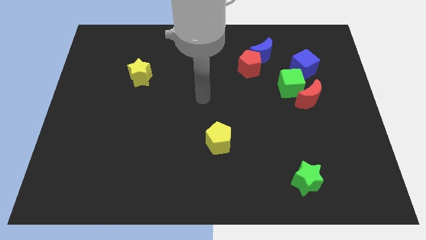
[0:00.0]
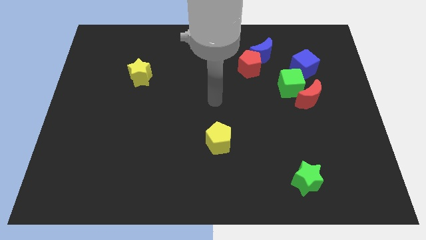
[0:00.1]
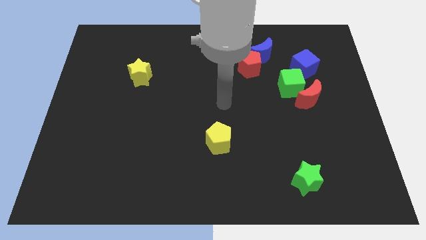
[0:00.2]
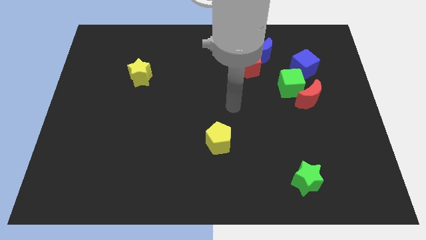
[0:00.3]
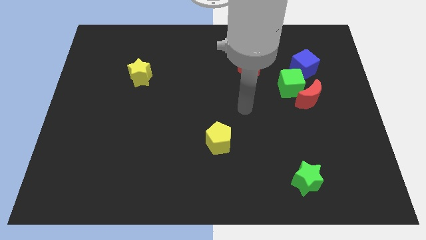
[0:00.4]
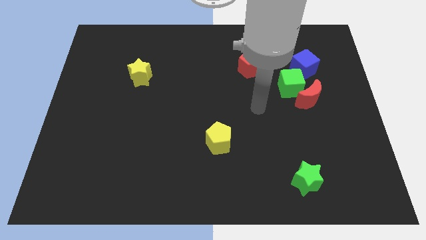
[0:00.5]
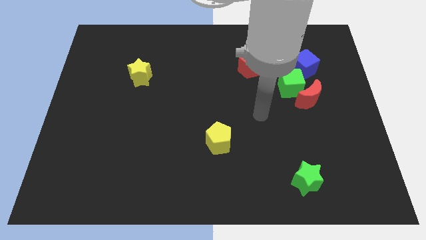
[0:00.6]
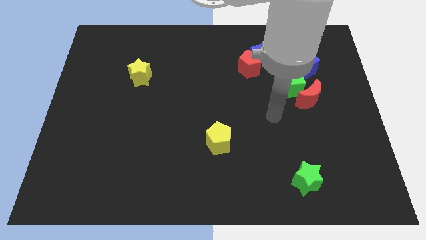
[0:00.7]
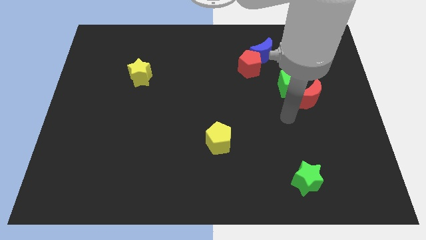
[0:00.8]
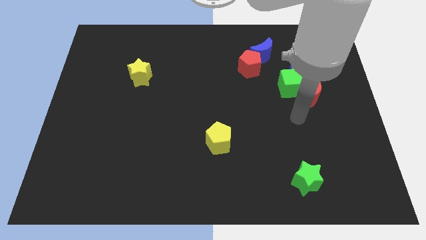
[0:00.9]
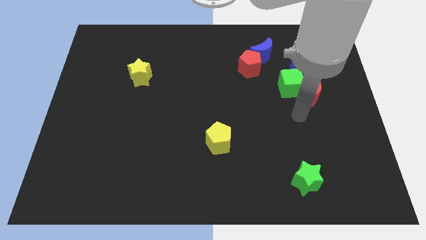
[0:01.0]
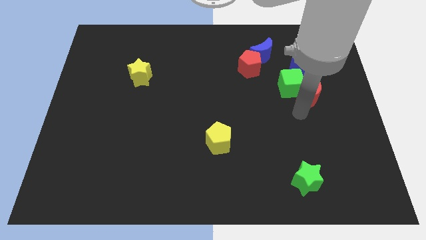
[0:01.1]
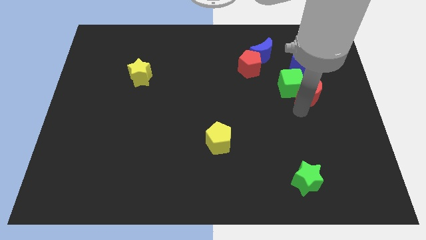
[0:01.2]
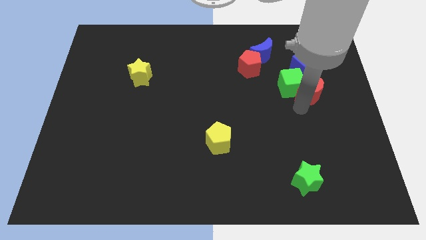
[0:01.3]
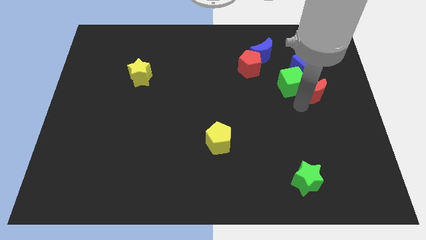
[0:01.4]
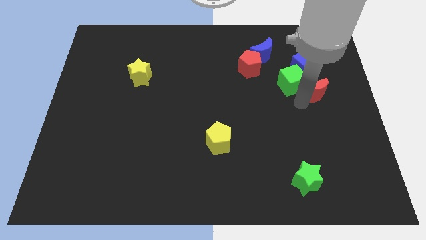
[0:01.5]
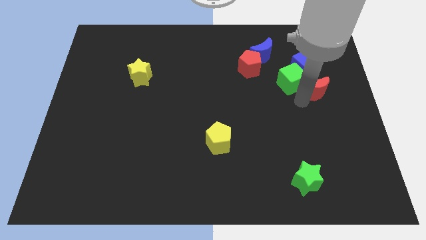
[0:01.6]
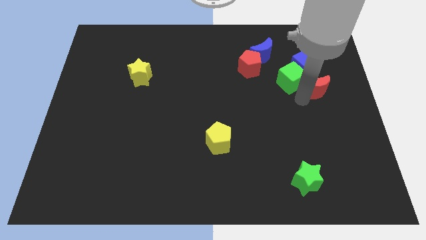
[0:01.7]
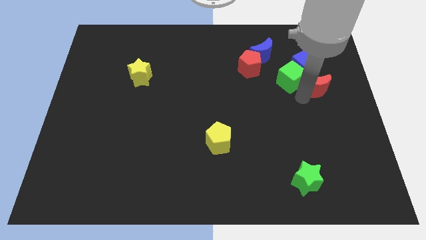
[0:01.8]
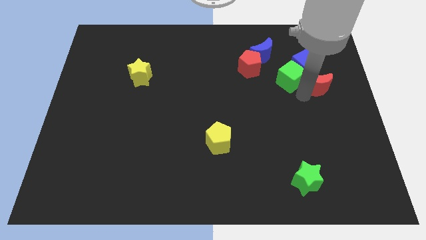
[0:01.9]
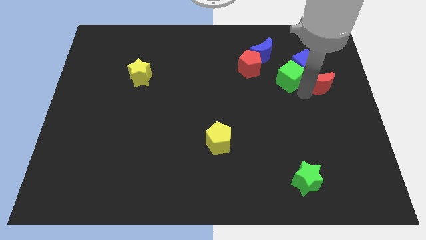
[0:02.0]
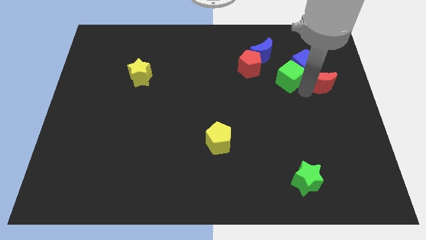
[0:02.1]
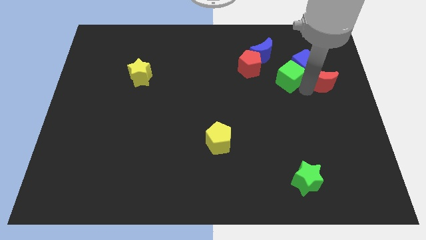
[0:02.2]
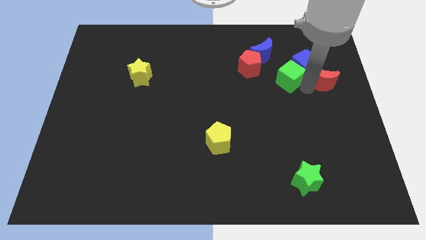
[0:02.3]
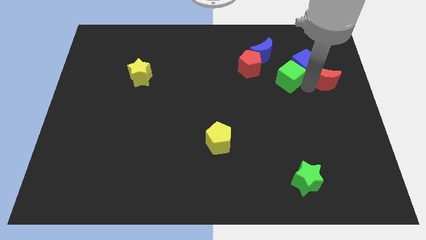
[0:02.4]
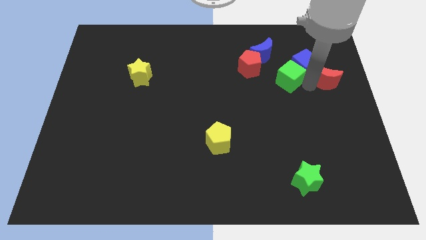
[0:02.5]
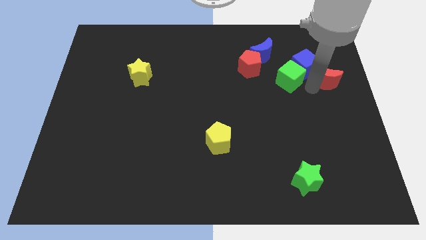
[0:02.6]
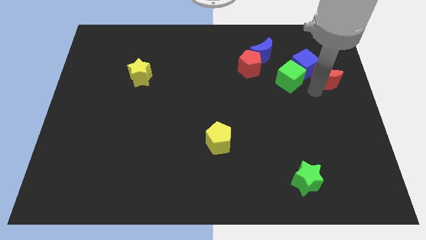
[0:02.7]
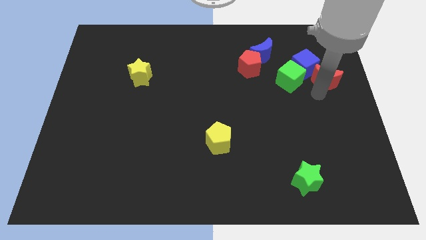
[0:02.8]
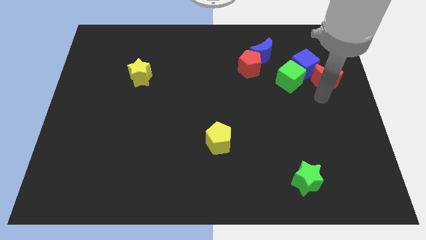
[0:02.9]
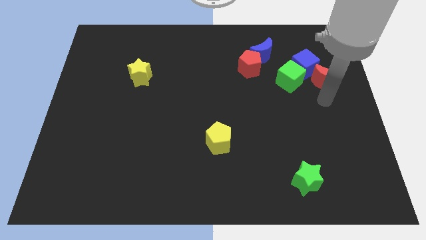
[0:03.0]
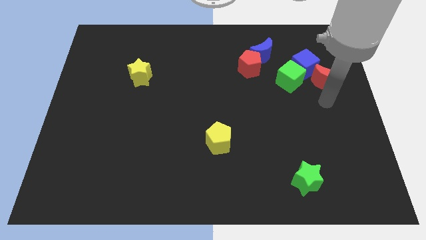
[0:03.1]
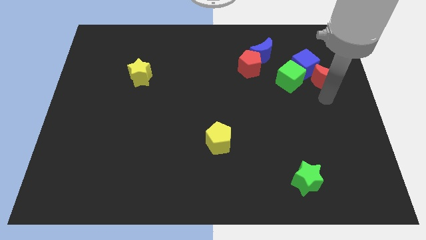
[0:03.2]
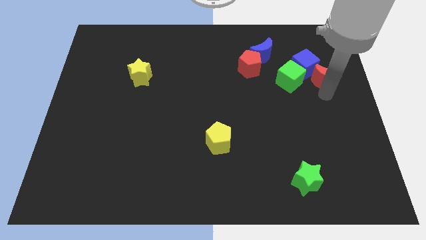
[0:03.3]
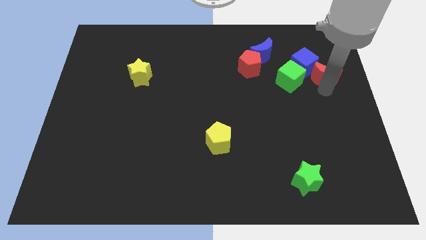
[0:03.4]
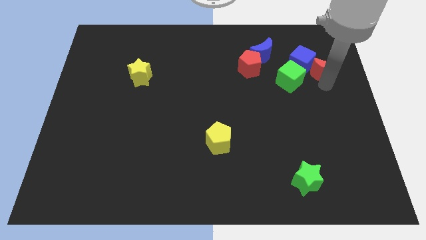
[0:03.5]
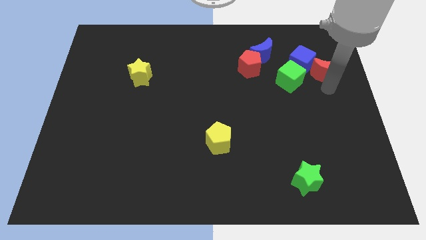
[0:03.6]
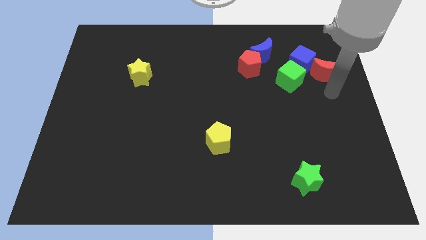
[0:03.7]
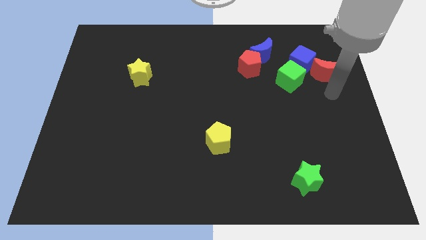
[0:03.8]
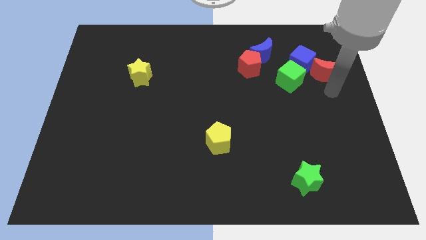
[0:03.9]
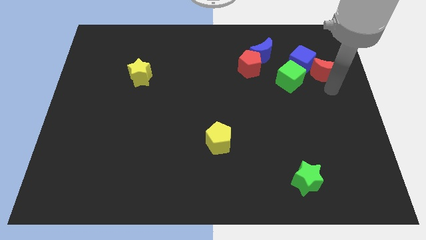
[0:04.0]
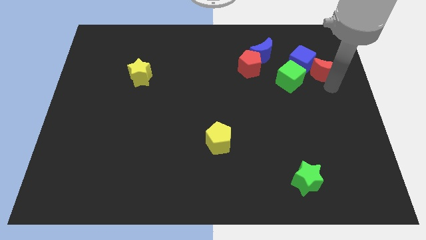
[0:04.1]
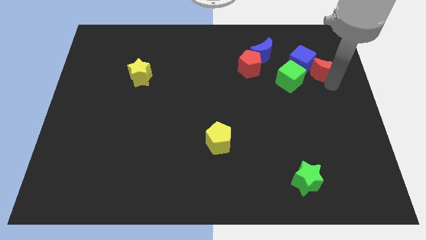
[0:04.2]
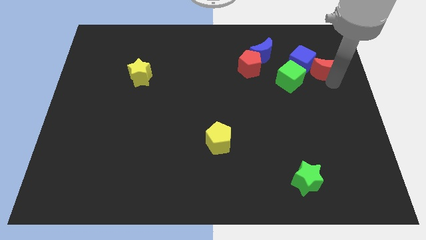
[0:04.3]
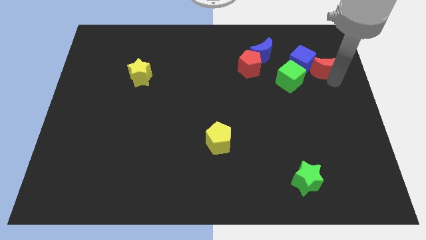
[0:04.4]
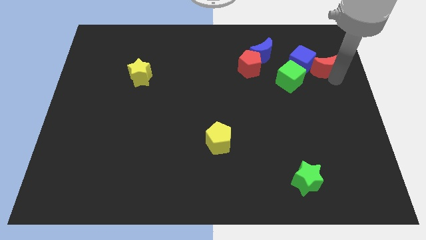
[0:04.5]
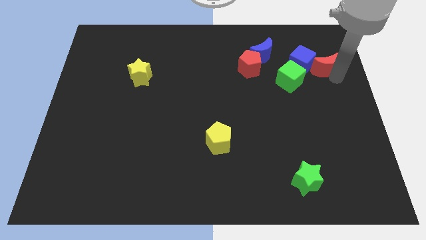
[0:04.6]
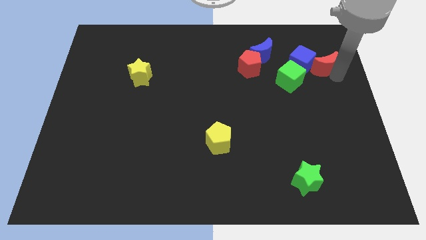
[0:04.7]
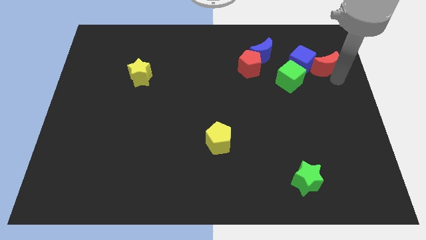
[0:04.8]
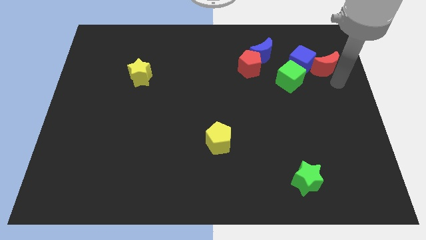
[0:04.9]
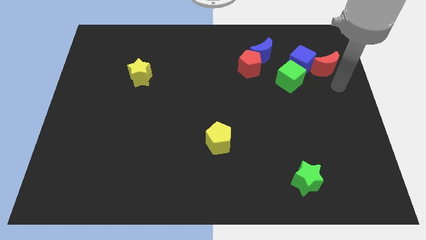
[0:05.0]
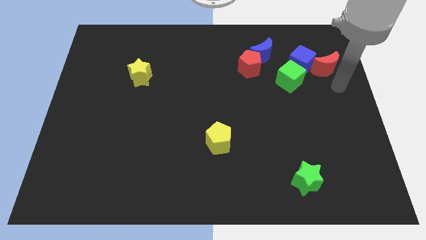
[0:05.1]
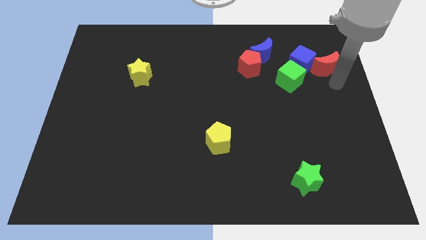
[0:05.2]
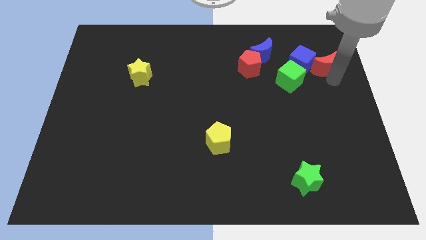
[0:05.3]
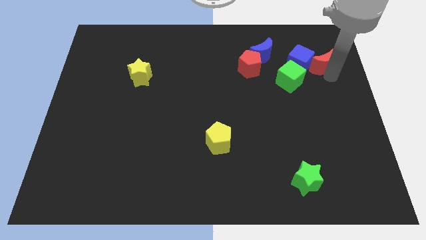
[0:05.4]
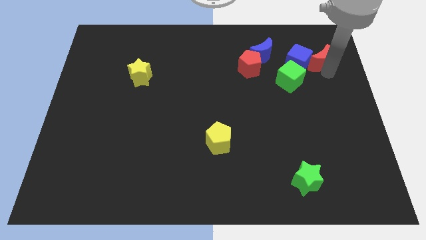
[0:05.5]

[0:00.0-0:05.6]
put the red moon to the right side of the blue moon

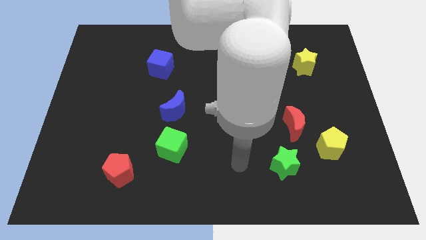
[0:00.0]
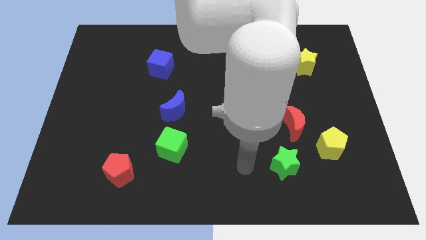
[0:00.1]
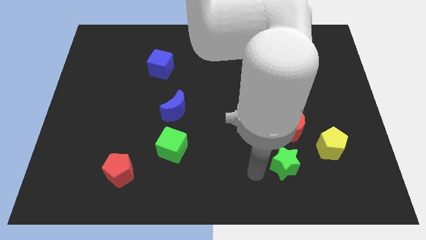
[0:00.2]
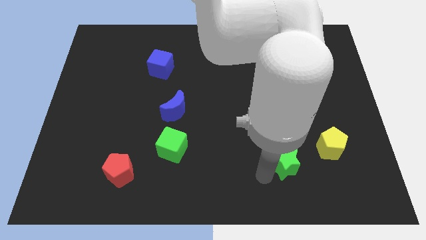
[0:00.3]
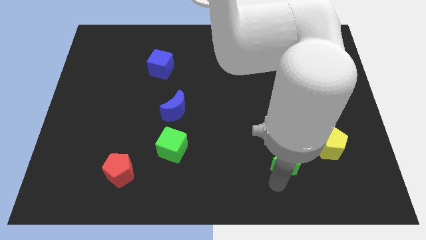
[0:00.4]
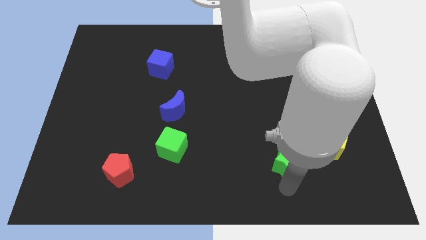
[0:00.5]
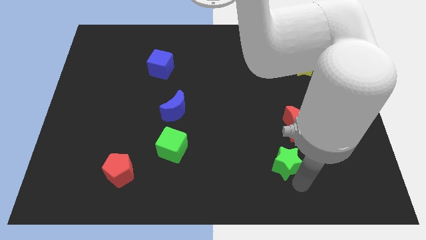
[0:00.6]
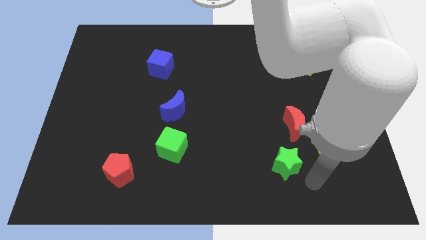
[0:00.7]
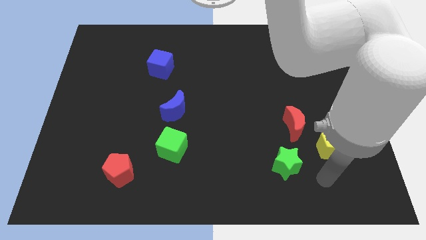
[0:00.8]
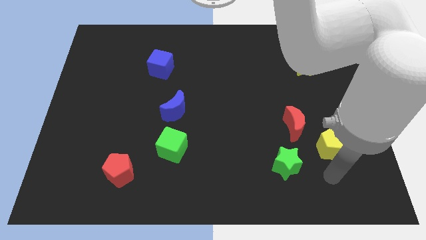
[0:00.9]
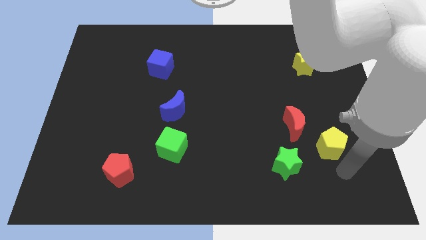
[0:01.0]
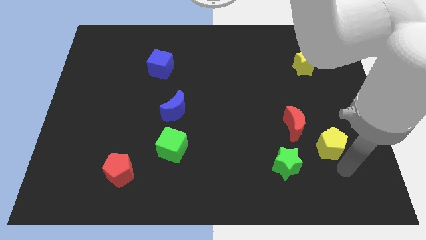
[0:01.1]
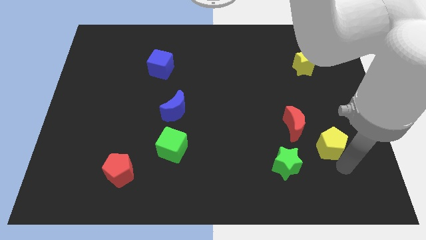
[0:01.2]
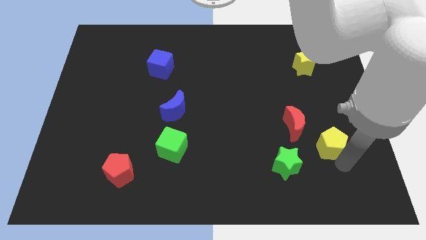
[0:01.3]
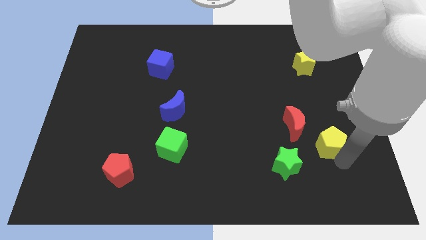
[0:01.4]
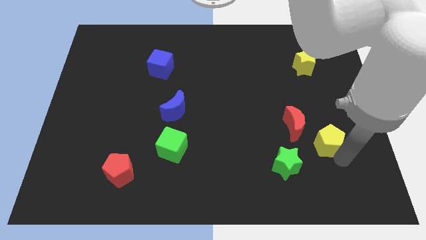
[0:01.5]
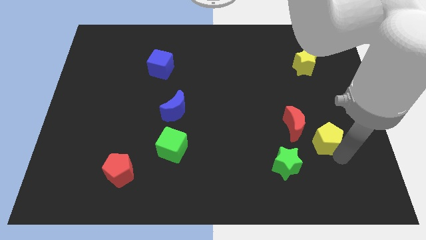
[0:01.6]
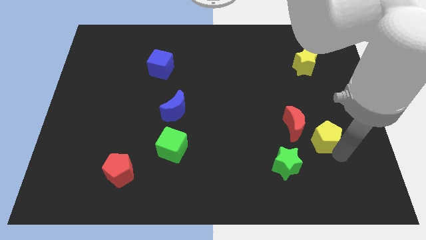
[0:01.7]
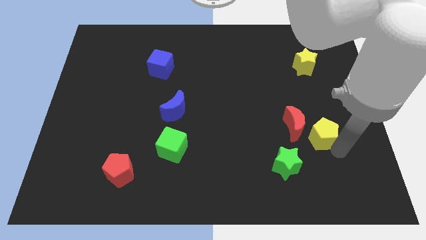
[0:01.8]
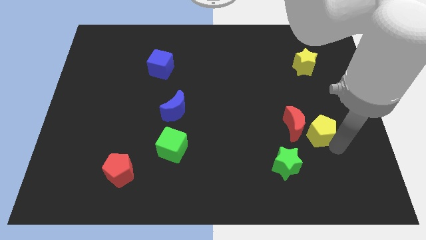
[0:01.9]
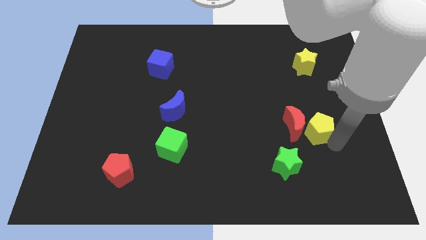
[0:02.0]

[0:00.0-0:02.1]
slide the yellow pentagon diagonally up and to the right of the red moon

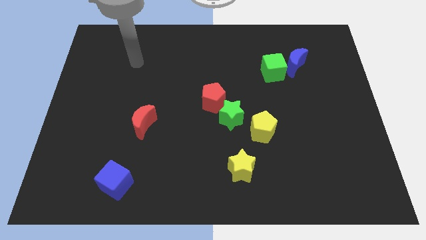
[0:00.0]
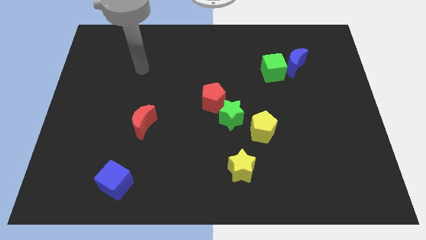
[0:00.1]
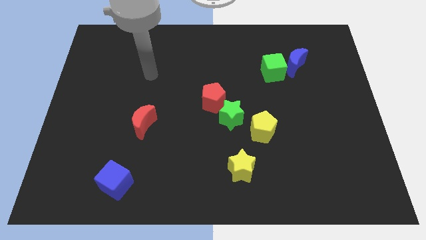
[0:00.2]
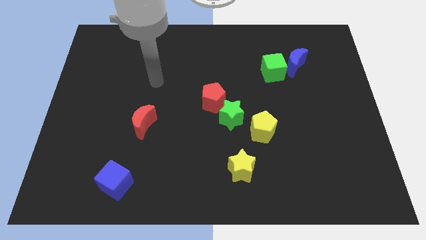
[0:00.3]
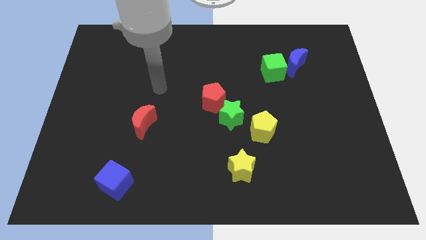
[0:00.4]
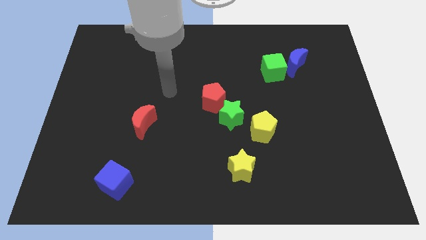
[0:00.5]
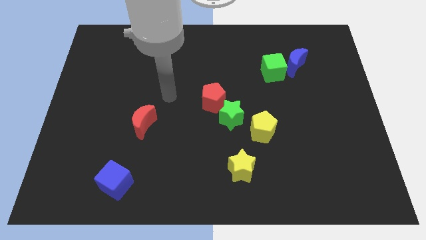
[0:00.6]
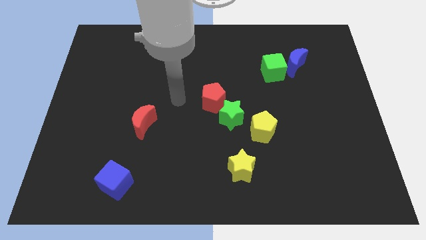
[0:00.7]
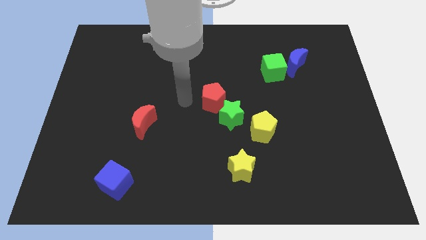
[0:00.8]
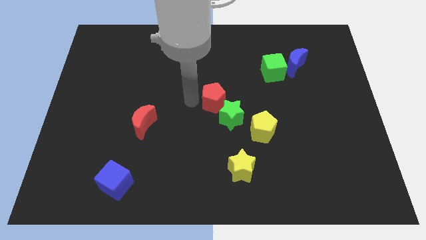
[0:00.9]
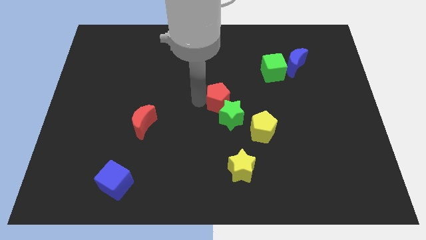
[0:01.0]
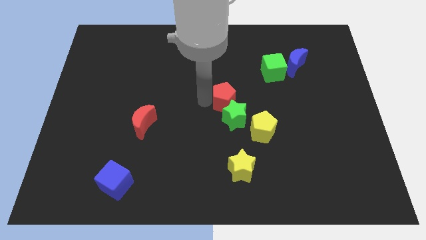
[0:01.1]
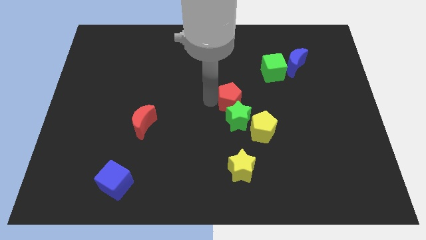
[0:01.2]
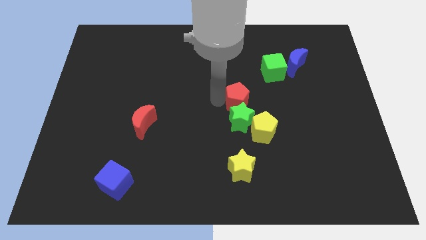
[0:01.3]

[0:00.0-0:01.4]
push the red pentagon to the top right of the green star
